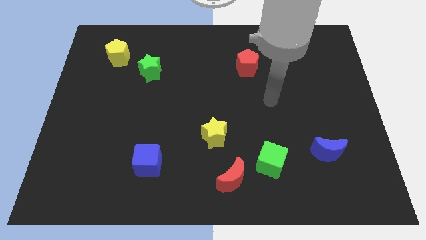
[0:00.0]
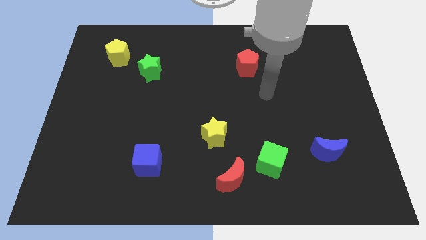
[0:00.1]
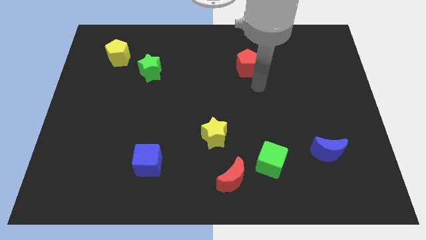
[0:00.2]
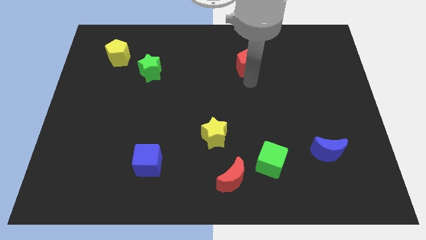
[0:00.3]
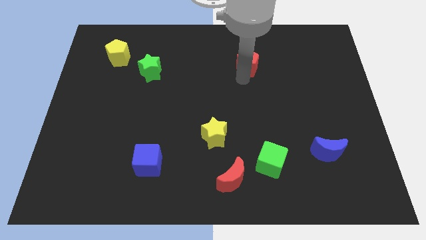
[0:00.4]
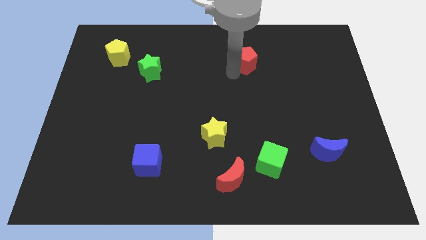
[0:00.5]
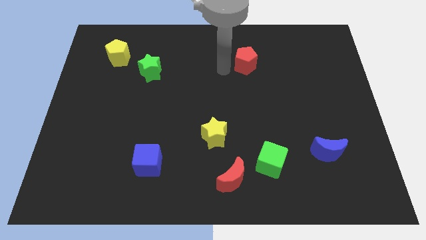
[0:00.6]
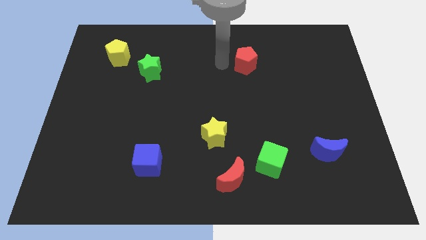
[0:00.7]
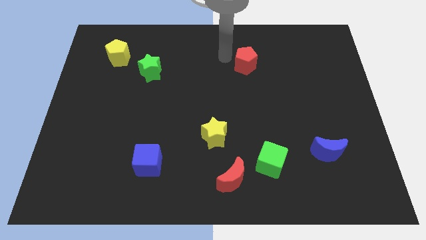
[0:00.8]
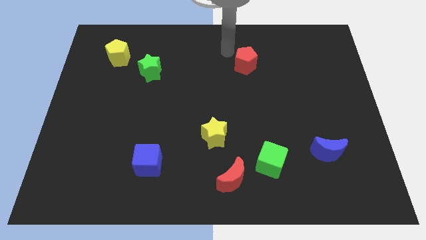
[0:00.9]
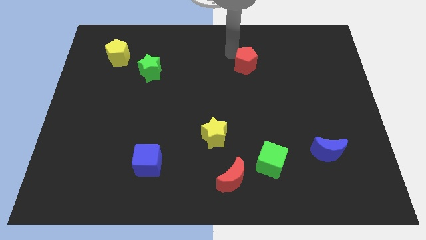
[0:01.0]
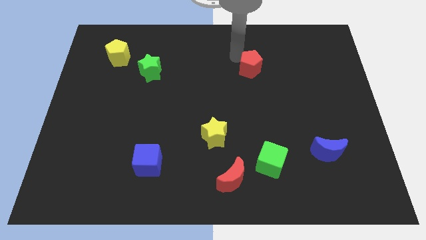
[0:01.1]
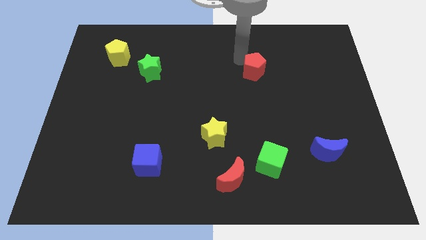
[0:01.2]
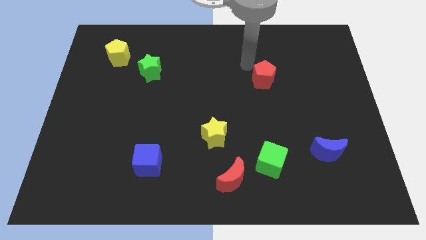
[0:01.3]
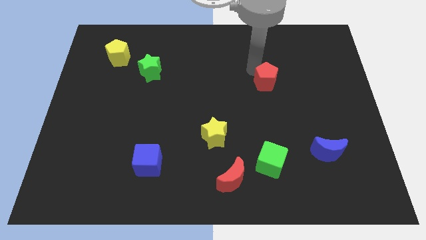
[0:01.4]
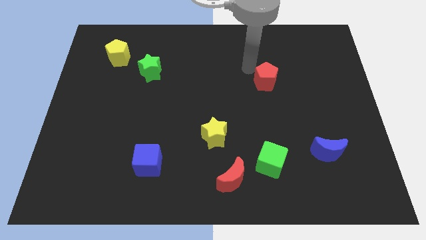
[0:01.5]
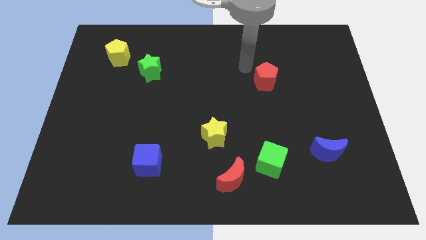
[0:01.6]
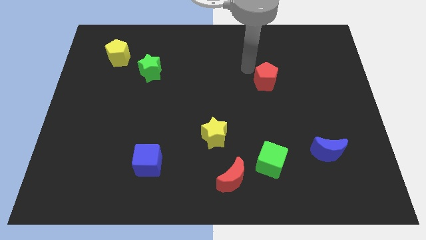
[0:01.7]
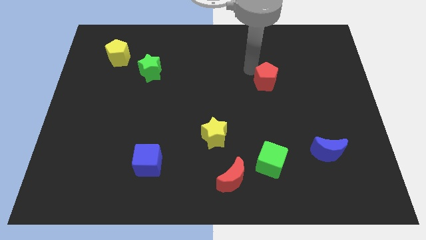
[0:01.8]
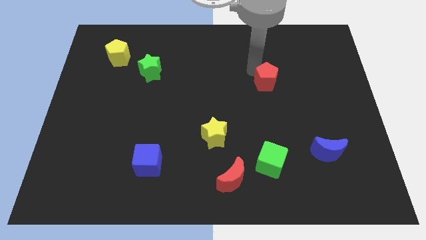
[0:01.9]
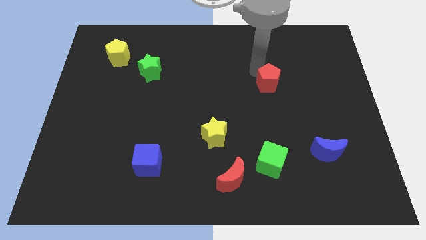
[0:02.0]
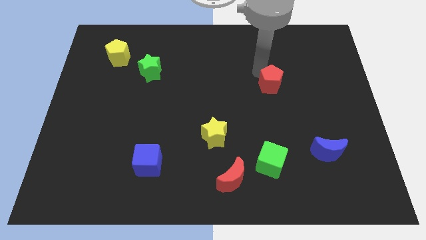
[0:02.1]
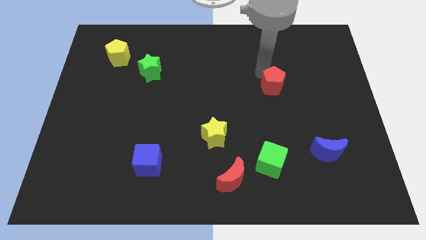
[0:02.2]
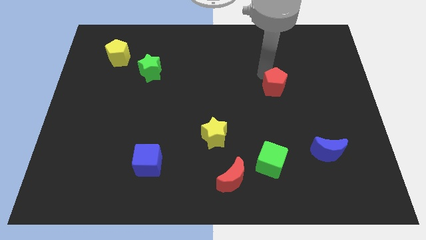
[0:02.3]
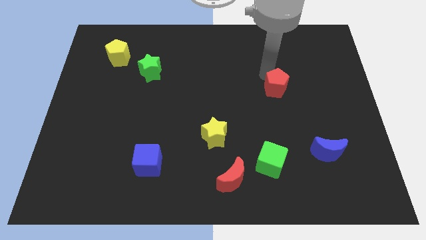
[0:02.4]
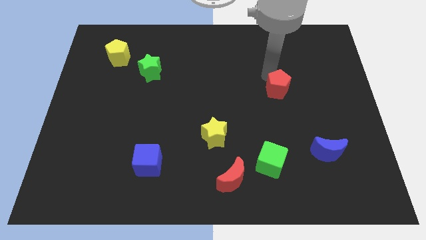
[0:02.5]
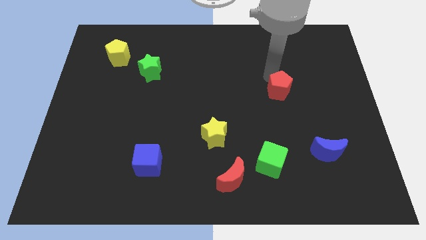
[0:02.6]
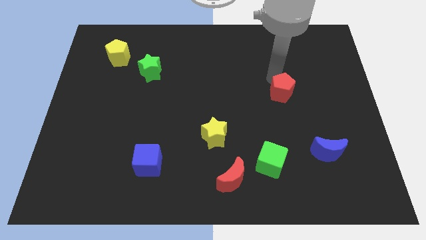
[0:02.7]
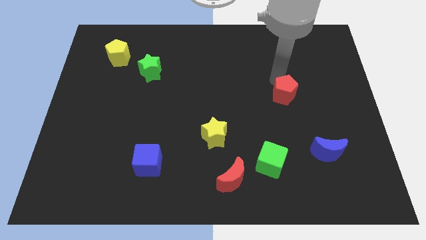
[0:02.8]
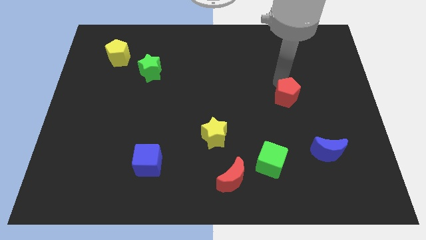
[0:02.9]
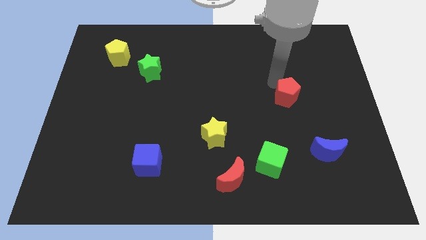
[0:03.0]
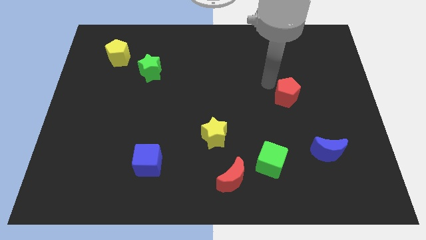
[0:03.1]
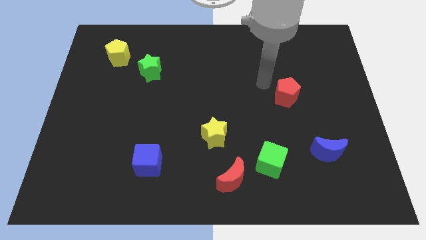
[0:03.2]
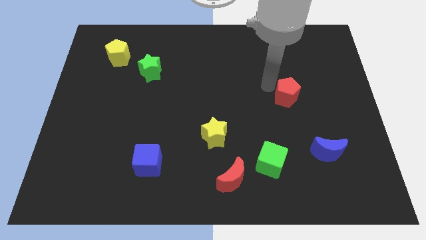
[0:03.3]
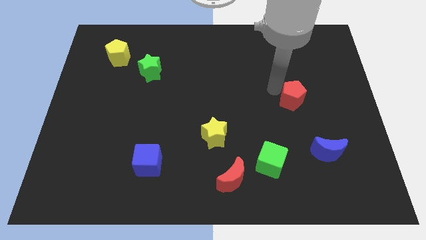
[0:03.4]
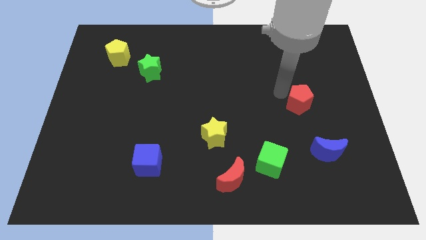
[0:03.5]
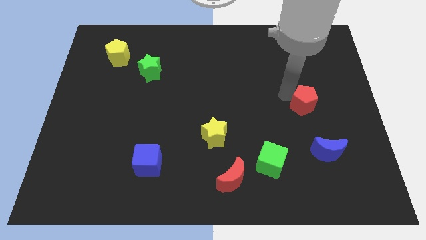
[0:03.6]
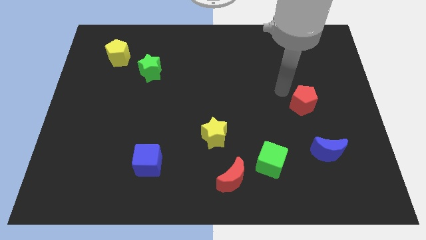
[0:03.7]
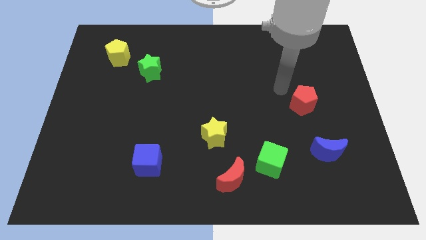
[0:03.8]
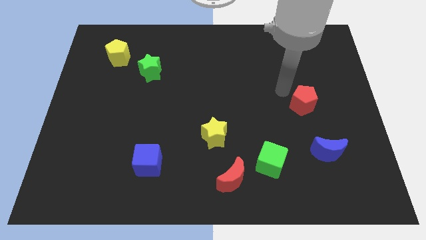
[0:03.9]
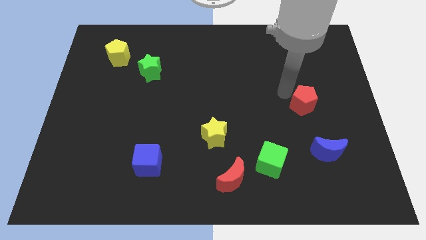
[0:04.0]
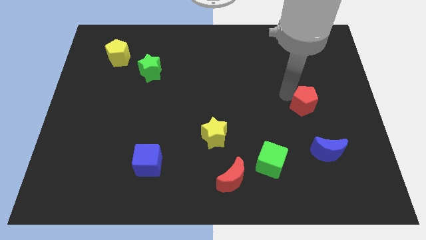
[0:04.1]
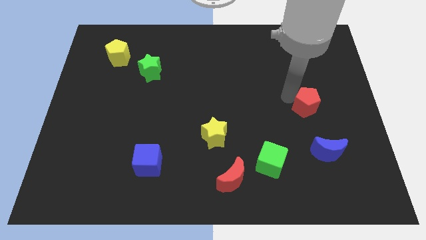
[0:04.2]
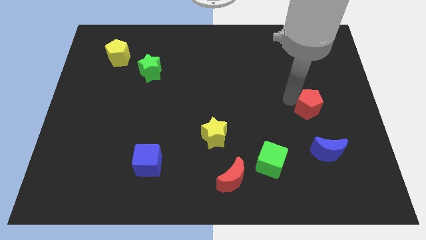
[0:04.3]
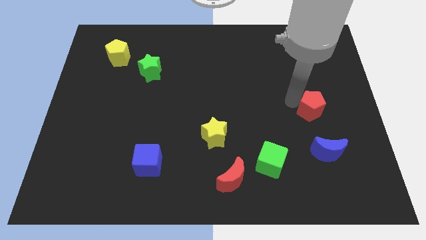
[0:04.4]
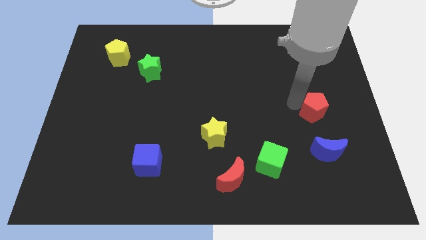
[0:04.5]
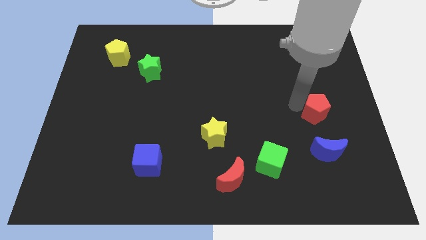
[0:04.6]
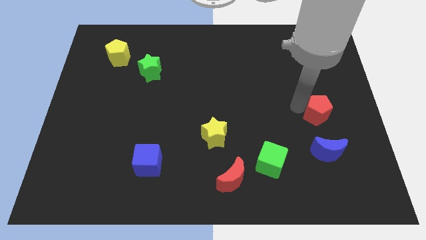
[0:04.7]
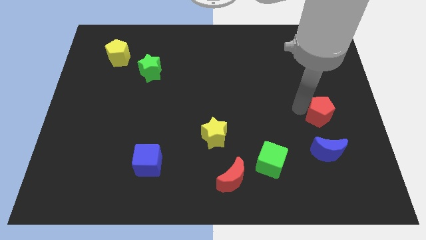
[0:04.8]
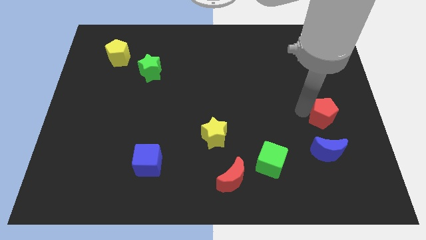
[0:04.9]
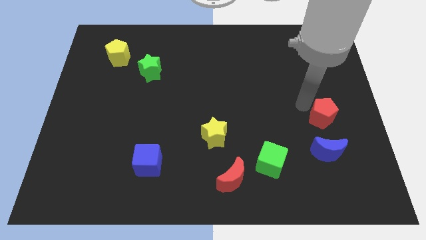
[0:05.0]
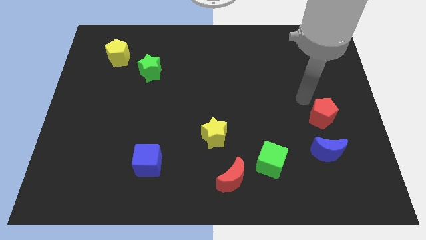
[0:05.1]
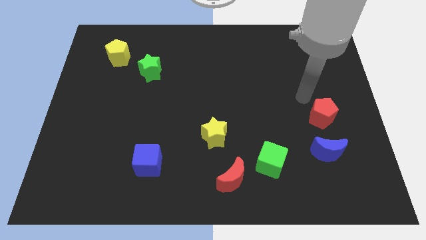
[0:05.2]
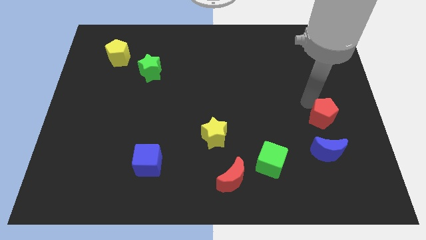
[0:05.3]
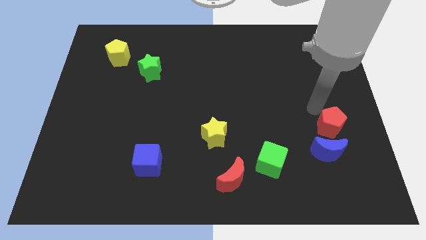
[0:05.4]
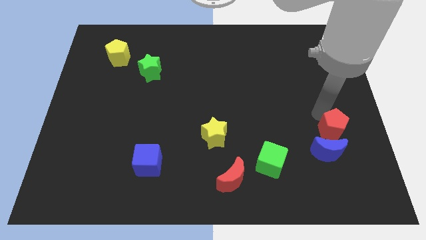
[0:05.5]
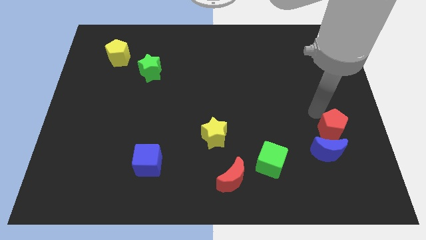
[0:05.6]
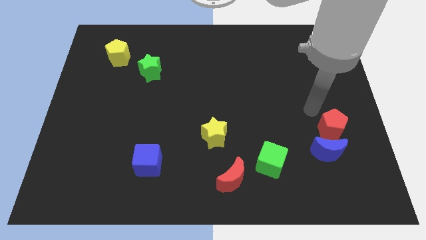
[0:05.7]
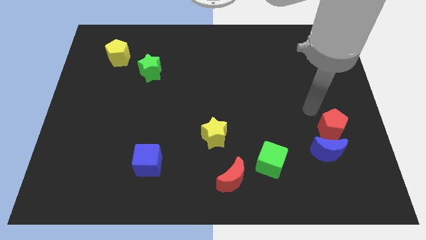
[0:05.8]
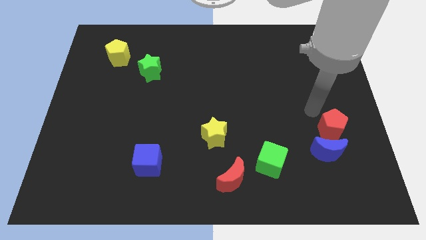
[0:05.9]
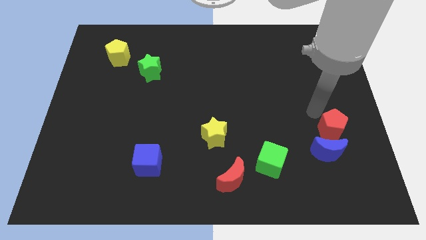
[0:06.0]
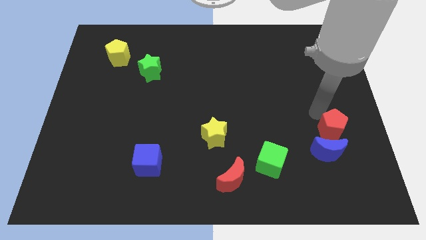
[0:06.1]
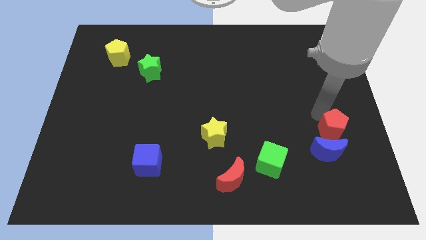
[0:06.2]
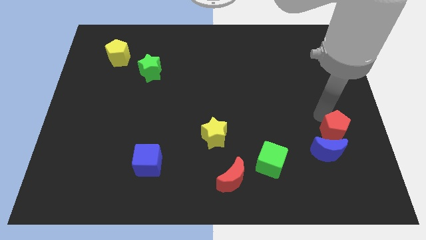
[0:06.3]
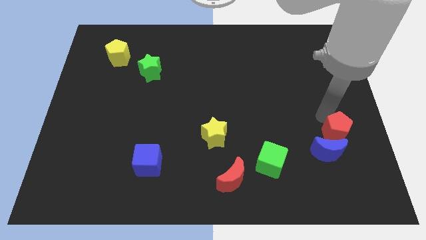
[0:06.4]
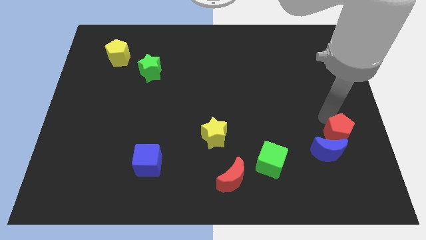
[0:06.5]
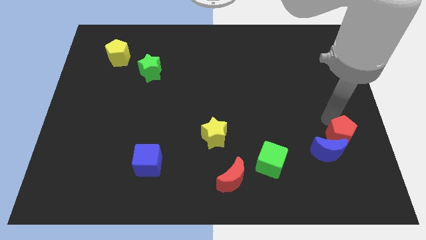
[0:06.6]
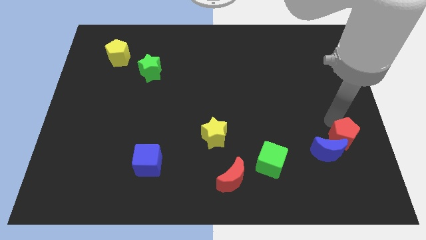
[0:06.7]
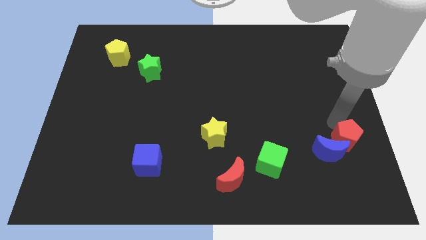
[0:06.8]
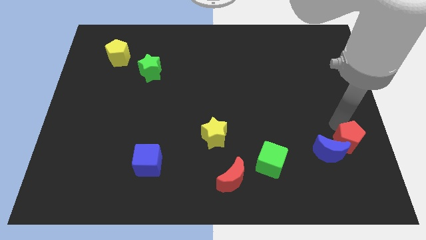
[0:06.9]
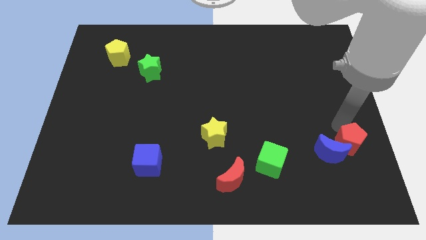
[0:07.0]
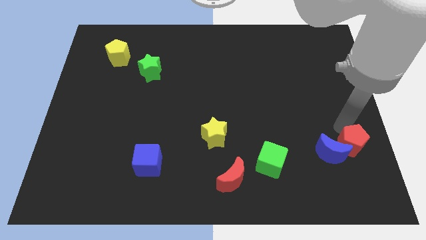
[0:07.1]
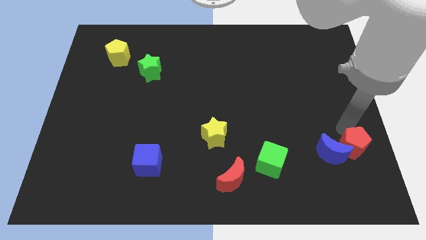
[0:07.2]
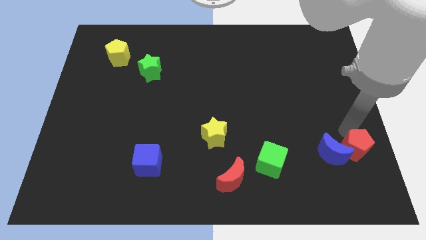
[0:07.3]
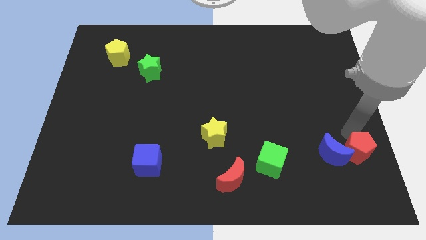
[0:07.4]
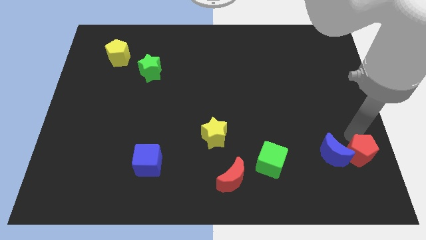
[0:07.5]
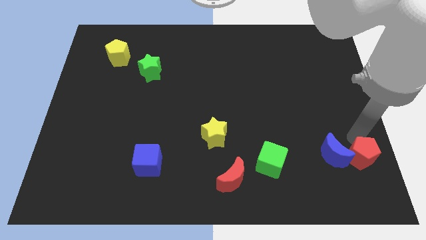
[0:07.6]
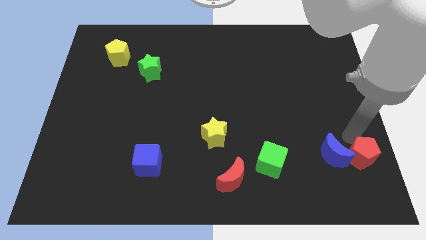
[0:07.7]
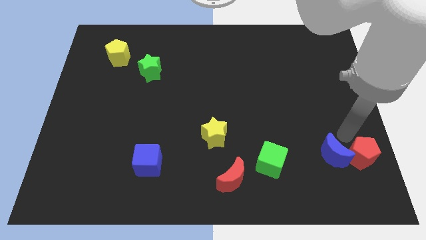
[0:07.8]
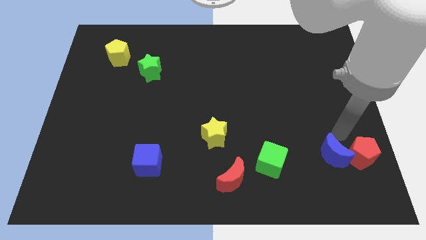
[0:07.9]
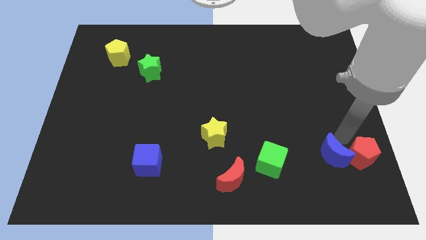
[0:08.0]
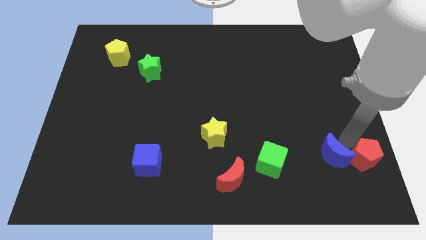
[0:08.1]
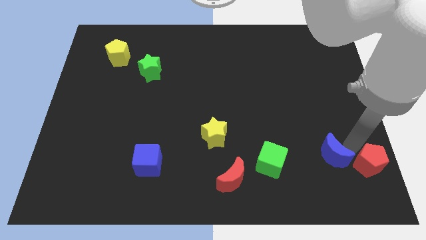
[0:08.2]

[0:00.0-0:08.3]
move the red pentagon to the bottom right
